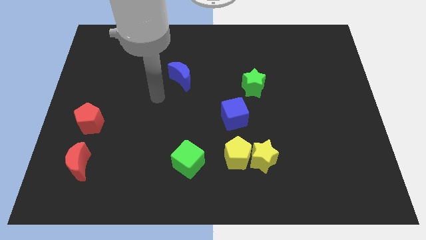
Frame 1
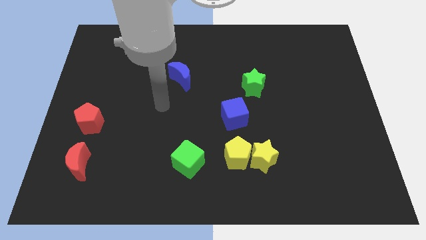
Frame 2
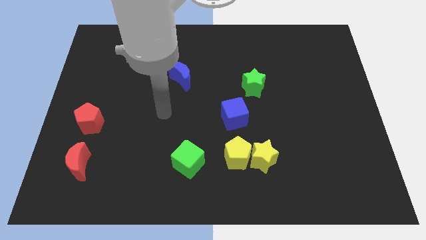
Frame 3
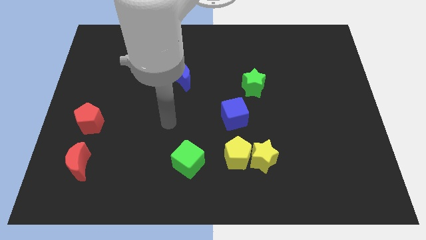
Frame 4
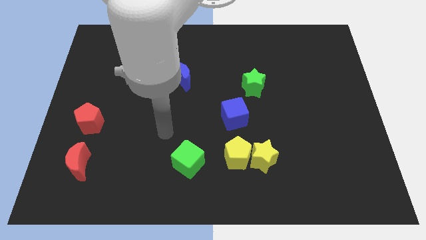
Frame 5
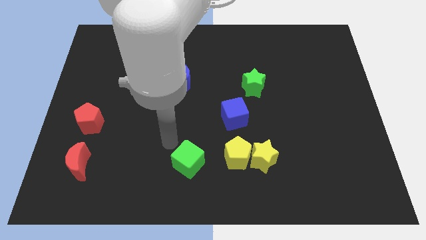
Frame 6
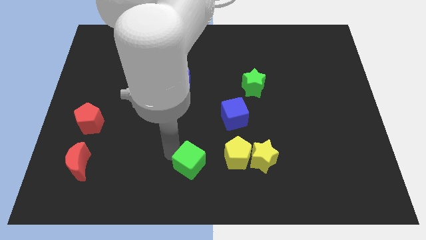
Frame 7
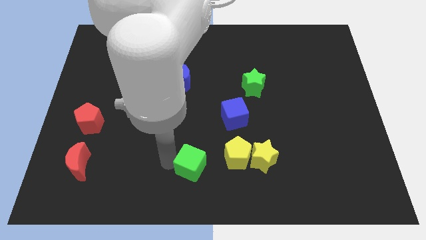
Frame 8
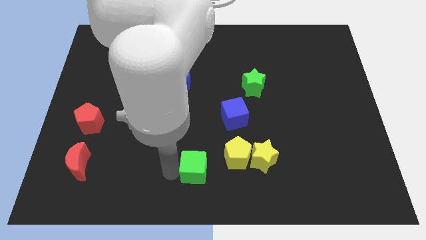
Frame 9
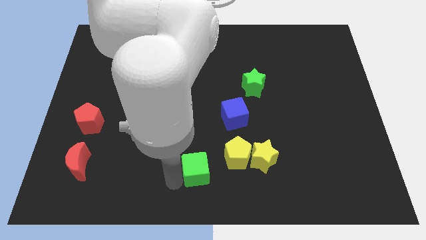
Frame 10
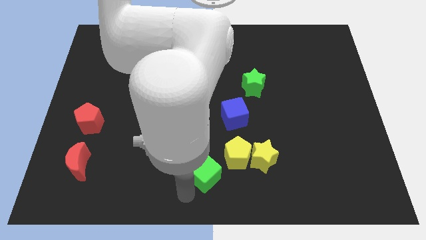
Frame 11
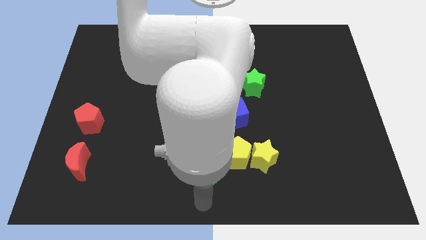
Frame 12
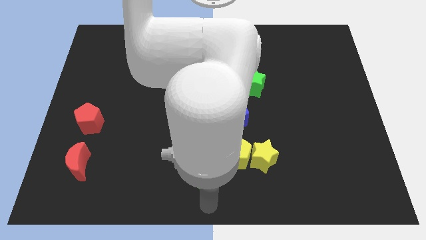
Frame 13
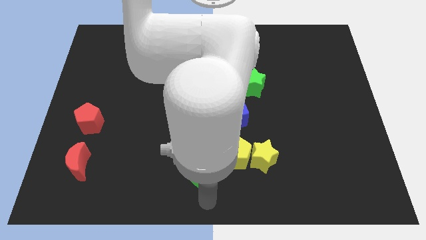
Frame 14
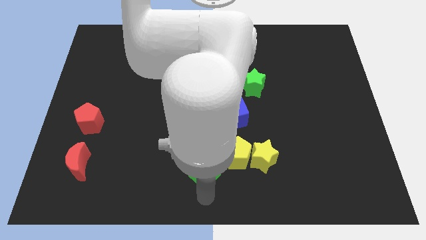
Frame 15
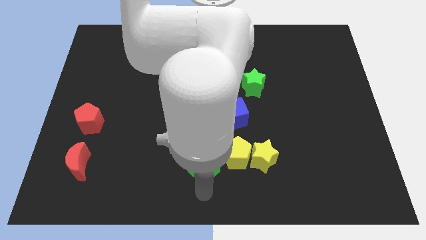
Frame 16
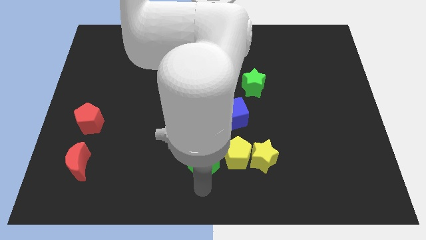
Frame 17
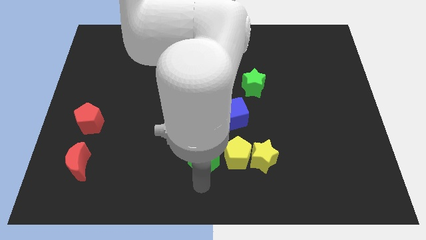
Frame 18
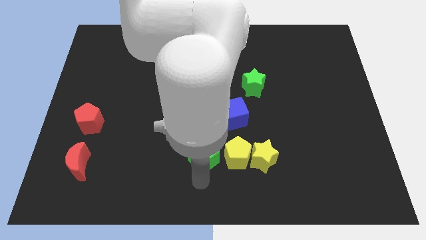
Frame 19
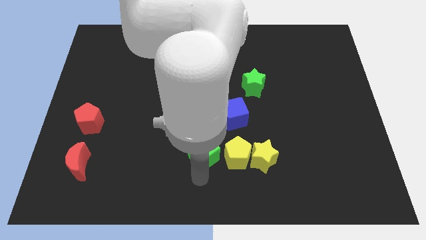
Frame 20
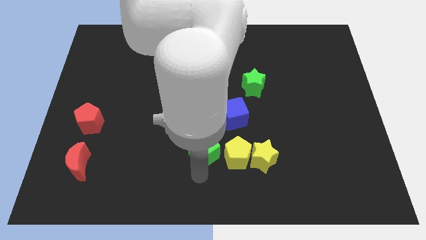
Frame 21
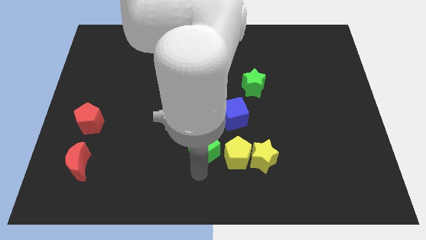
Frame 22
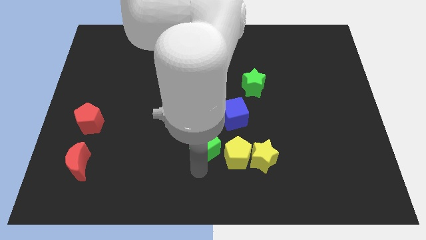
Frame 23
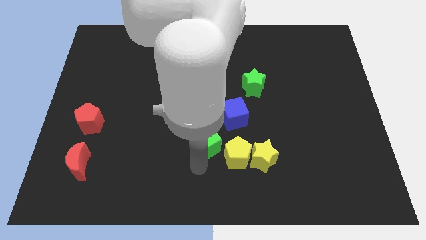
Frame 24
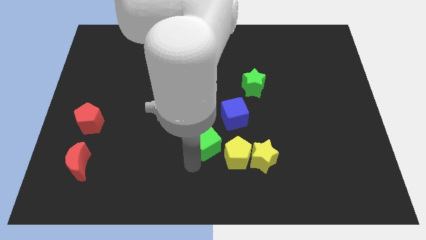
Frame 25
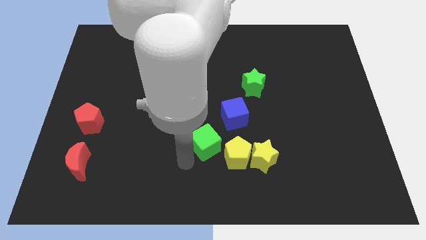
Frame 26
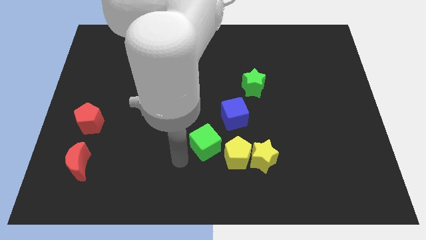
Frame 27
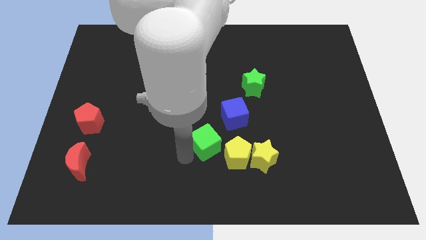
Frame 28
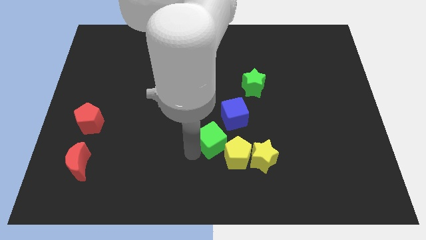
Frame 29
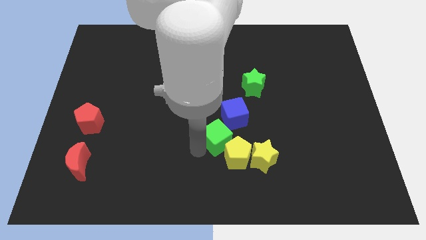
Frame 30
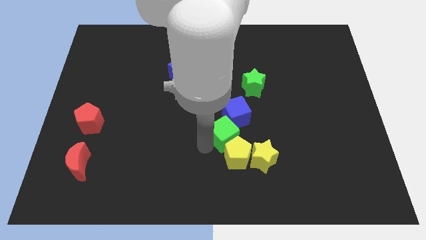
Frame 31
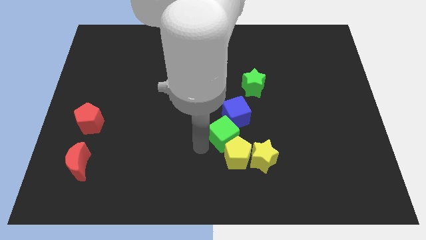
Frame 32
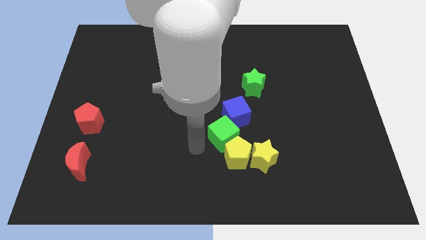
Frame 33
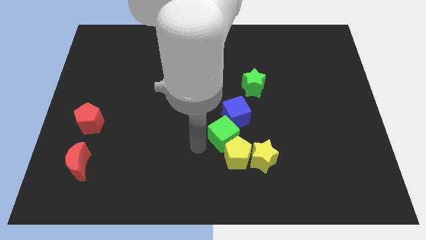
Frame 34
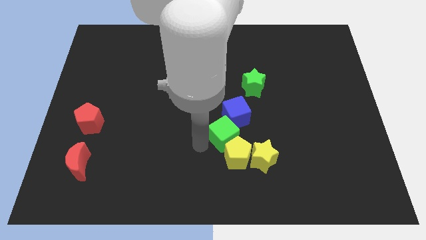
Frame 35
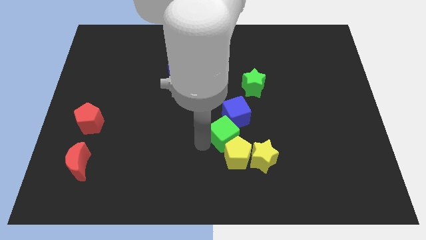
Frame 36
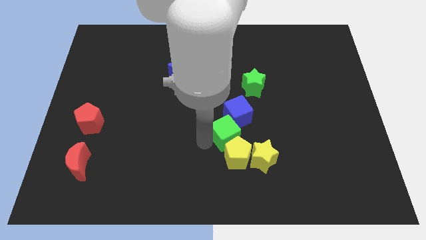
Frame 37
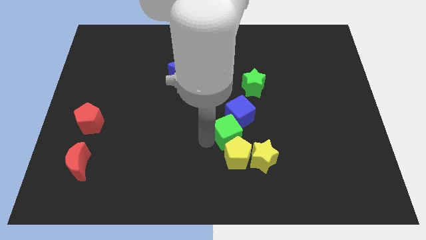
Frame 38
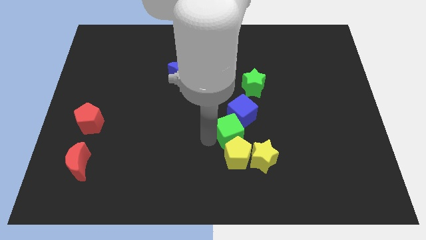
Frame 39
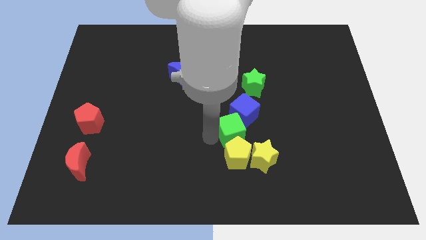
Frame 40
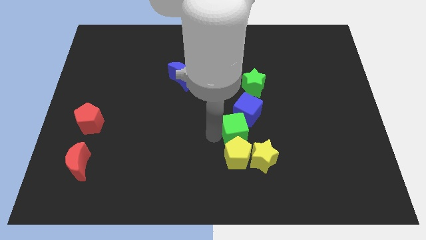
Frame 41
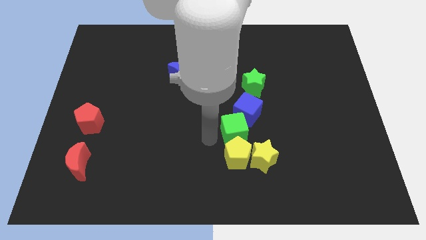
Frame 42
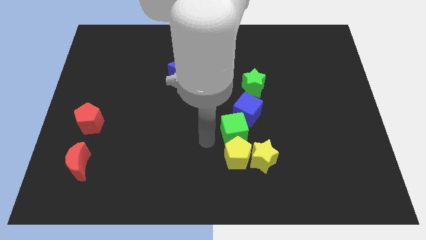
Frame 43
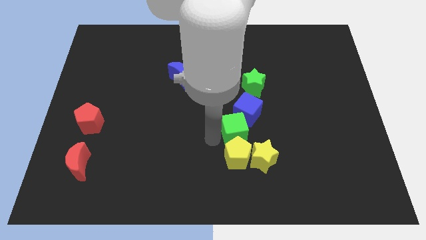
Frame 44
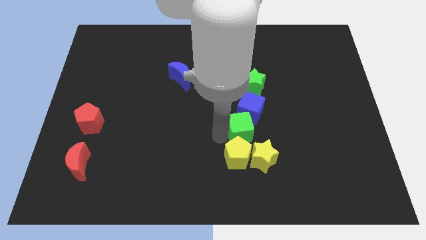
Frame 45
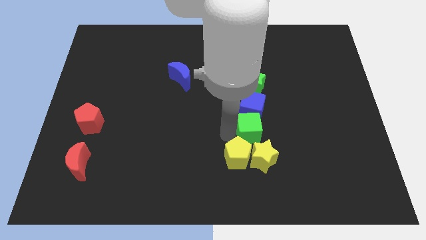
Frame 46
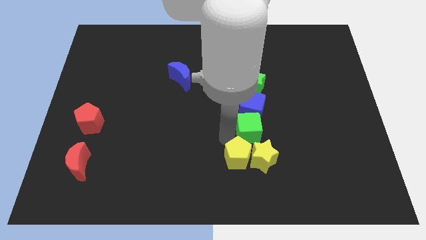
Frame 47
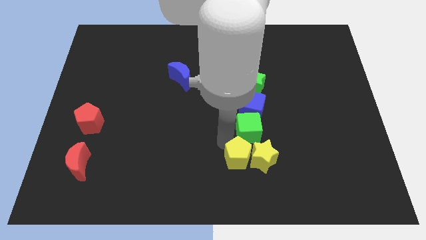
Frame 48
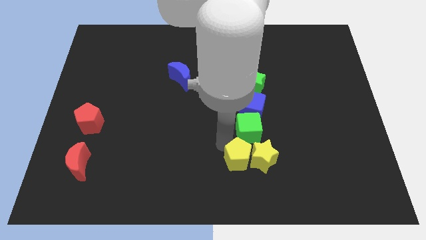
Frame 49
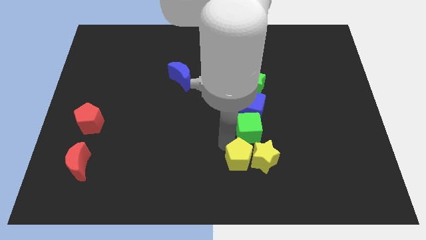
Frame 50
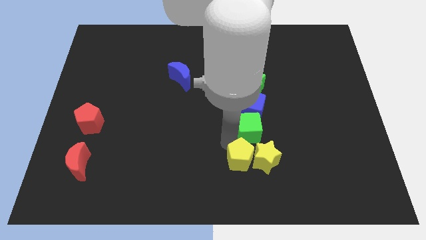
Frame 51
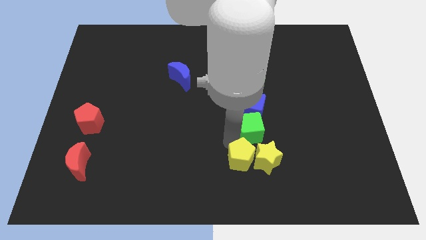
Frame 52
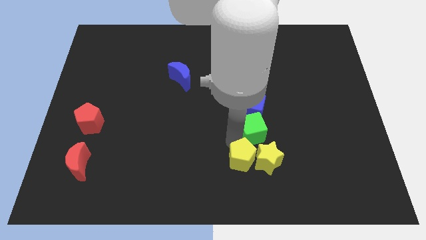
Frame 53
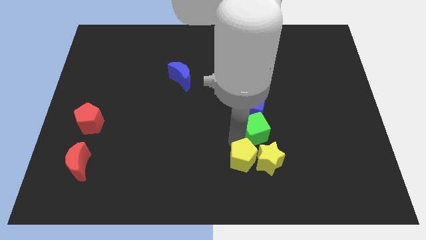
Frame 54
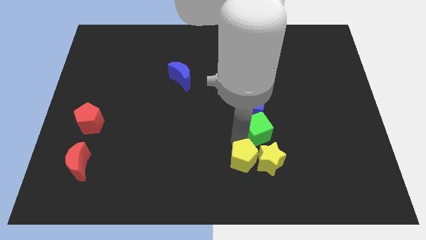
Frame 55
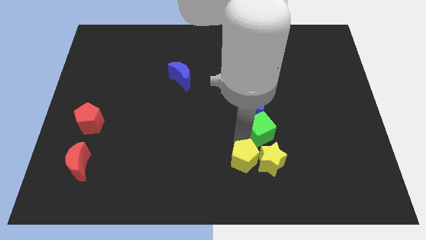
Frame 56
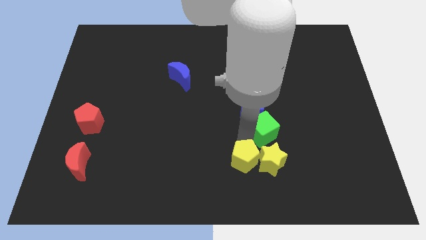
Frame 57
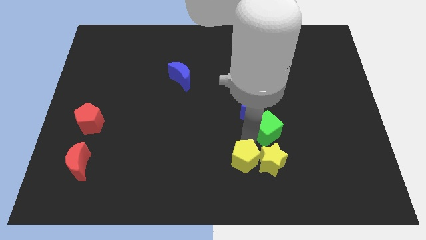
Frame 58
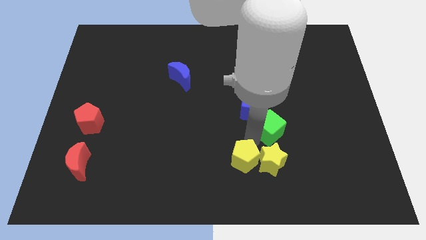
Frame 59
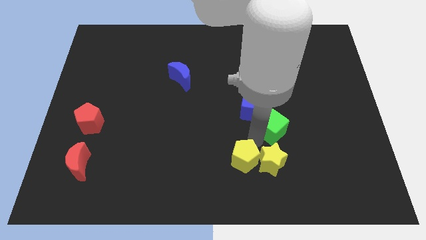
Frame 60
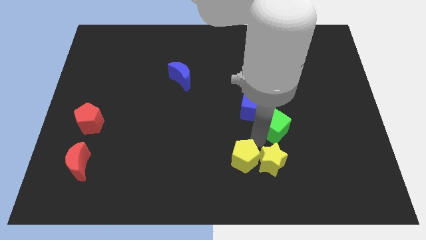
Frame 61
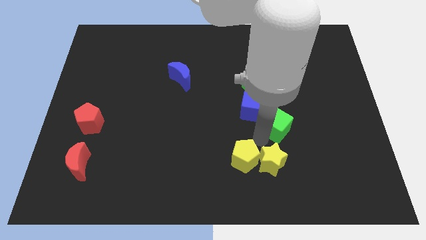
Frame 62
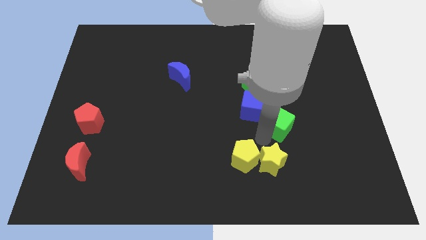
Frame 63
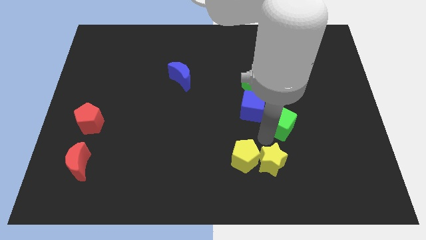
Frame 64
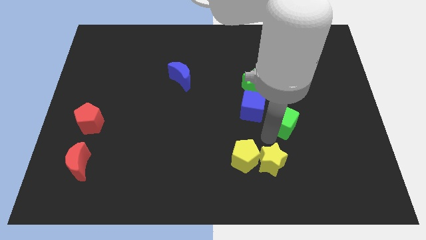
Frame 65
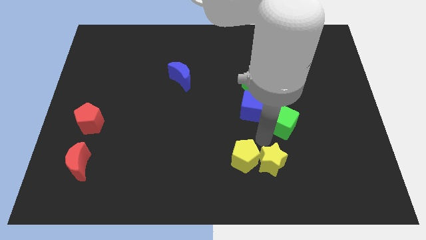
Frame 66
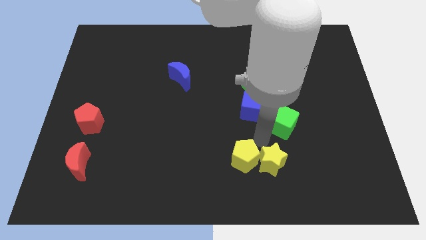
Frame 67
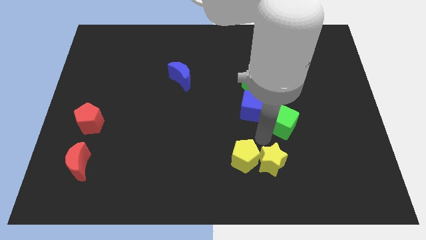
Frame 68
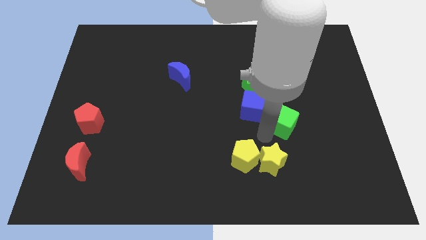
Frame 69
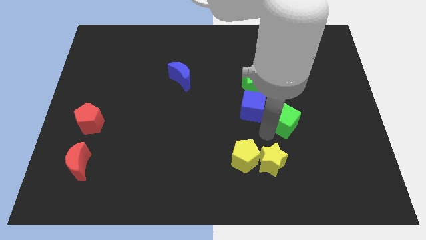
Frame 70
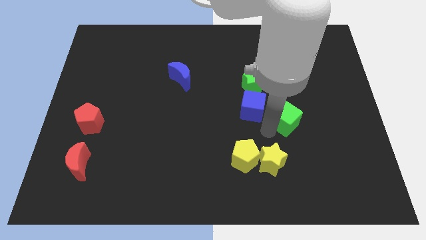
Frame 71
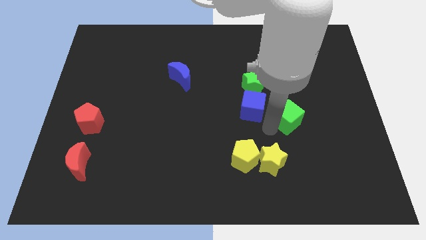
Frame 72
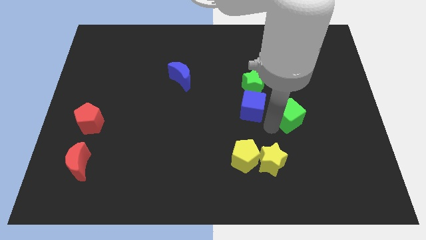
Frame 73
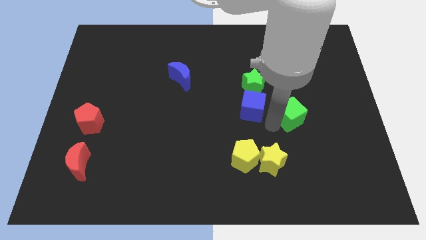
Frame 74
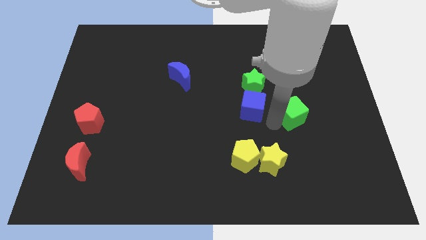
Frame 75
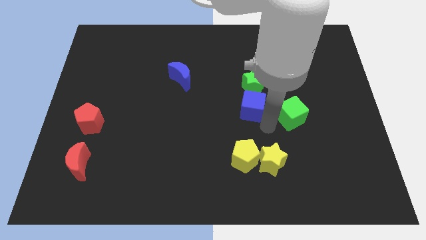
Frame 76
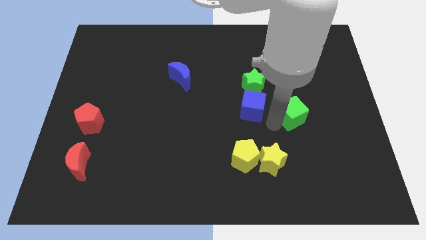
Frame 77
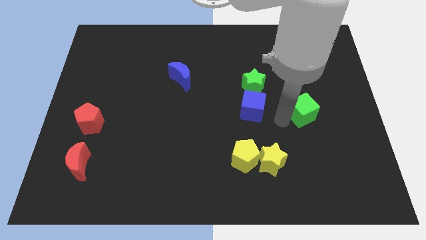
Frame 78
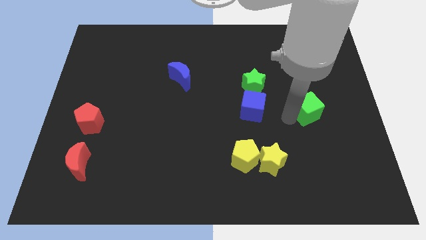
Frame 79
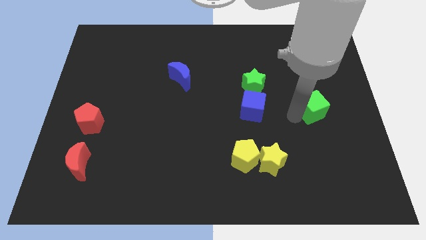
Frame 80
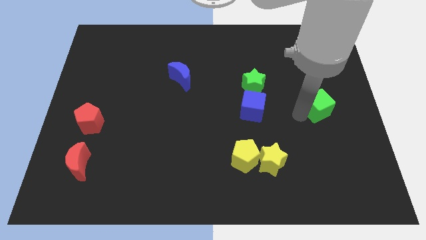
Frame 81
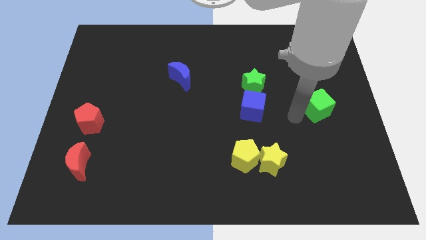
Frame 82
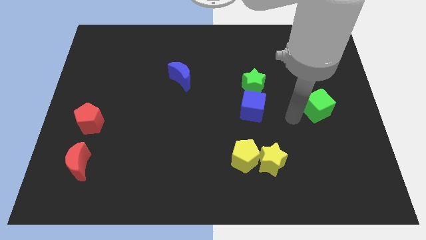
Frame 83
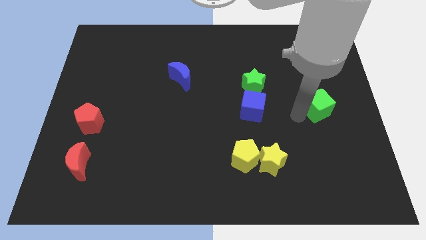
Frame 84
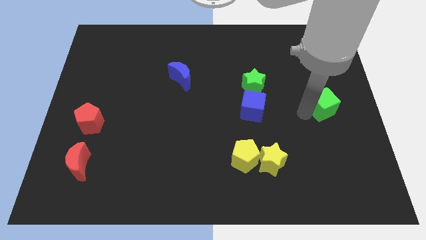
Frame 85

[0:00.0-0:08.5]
slide the green cube to the center right
